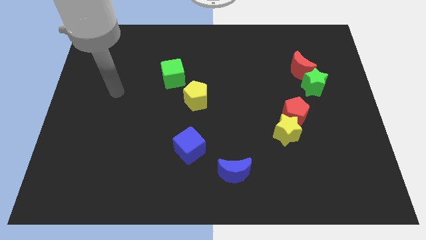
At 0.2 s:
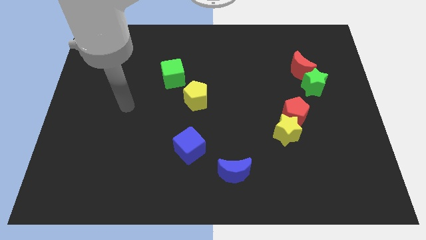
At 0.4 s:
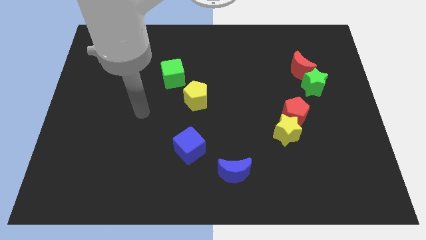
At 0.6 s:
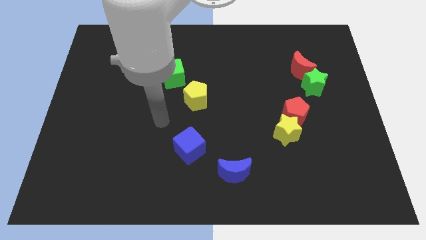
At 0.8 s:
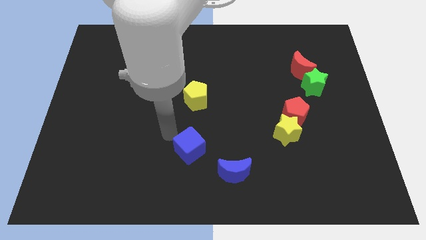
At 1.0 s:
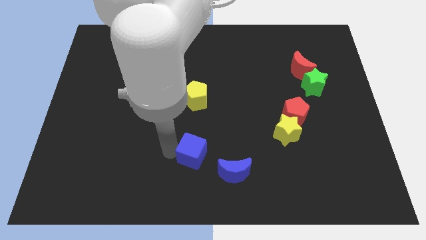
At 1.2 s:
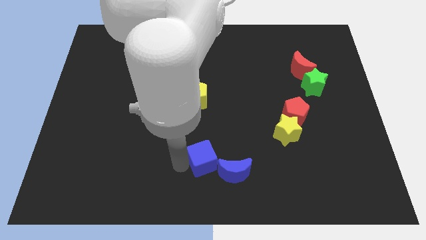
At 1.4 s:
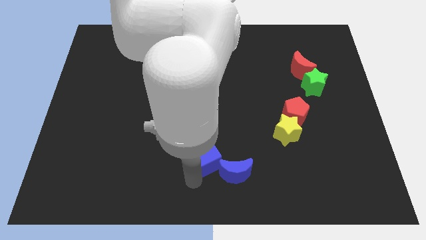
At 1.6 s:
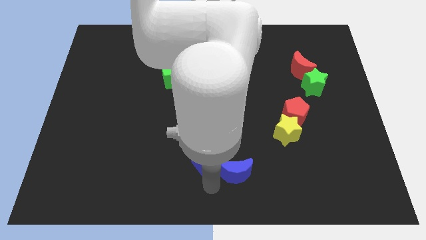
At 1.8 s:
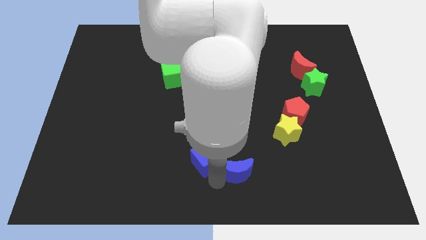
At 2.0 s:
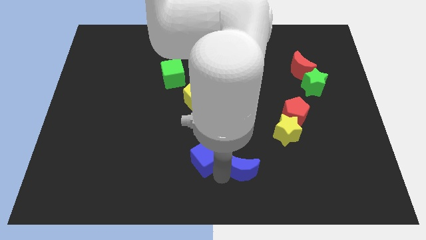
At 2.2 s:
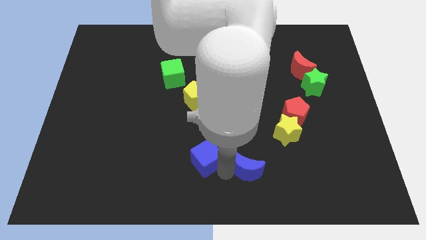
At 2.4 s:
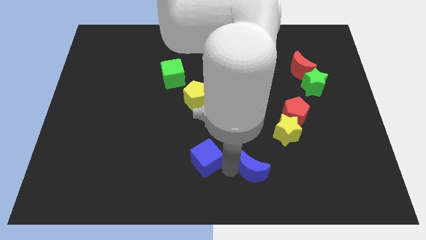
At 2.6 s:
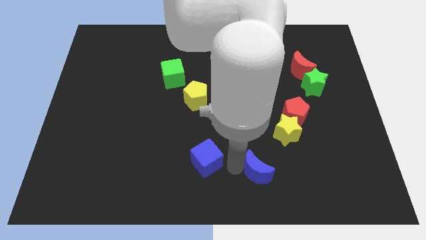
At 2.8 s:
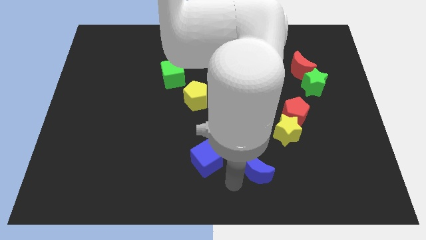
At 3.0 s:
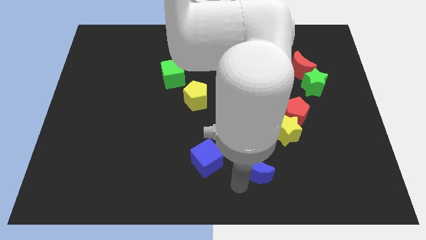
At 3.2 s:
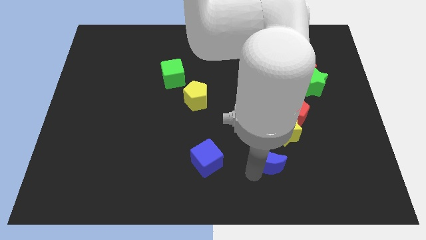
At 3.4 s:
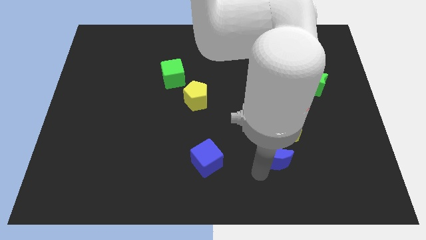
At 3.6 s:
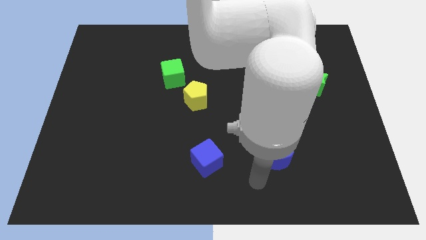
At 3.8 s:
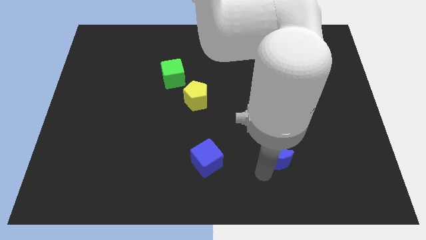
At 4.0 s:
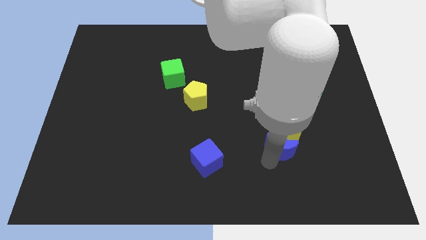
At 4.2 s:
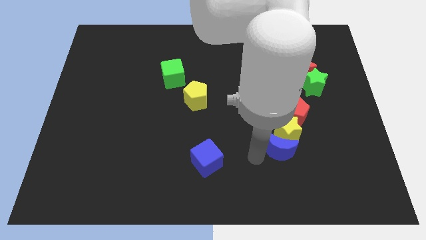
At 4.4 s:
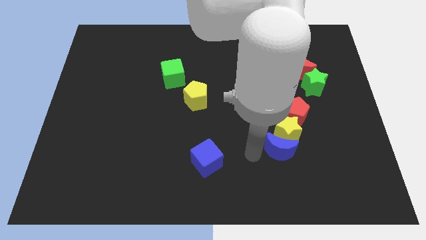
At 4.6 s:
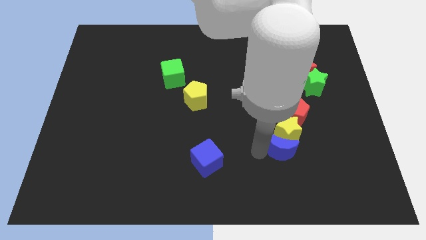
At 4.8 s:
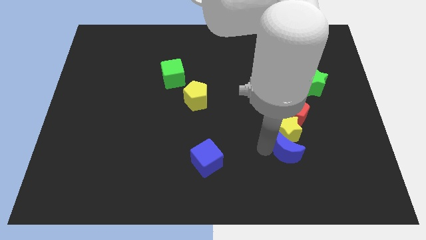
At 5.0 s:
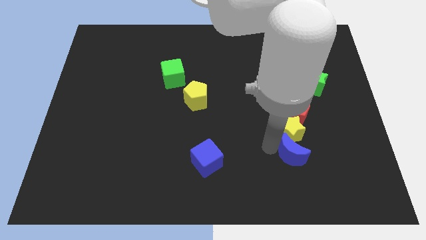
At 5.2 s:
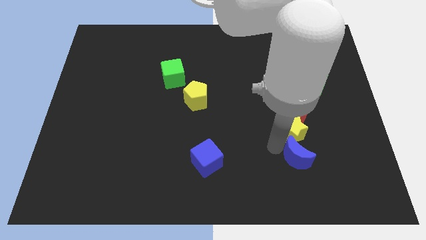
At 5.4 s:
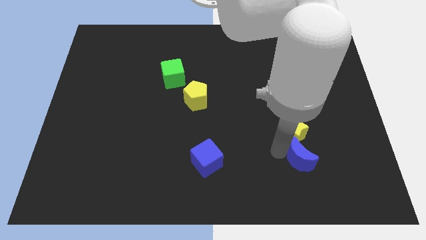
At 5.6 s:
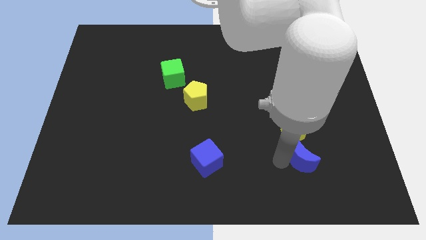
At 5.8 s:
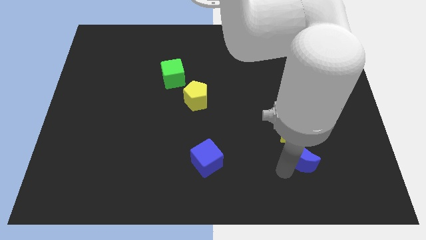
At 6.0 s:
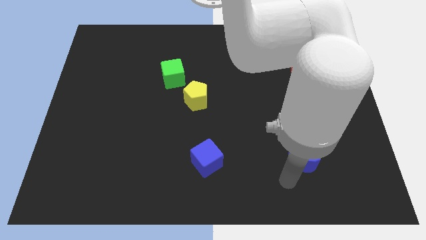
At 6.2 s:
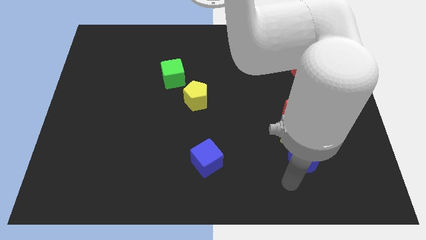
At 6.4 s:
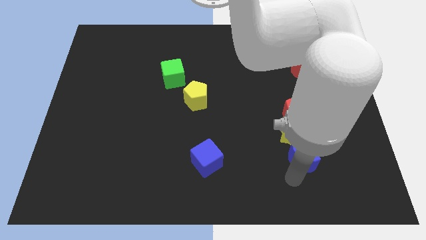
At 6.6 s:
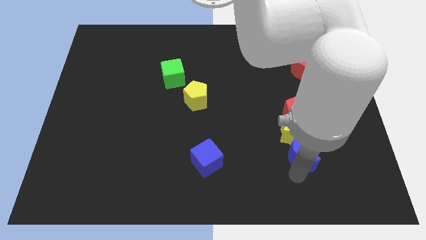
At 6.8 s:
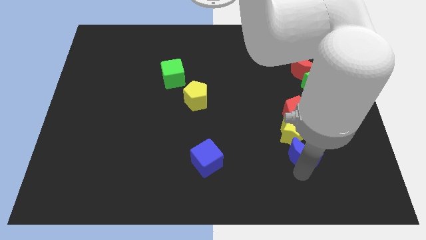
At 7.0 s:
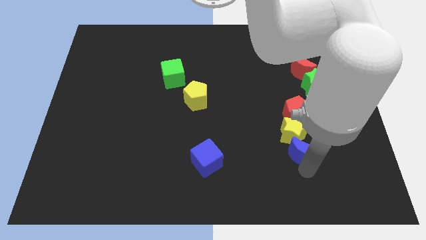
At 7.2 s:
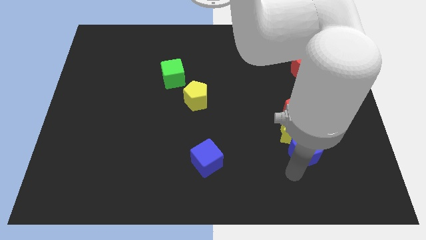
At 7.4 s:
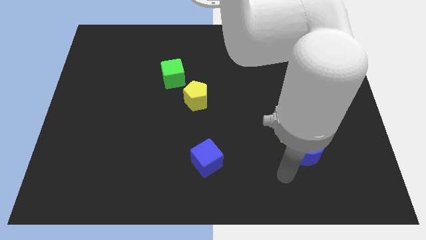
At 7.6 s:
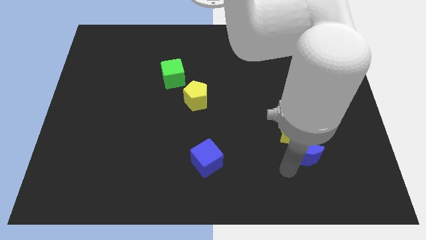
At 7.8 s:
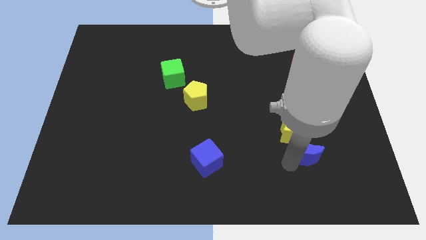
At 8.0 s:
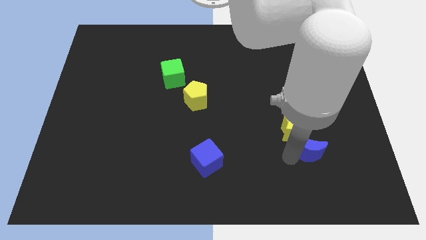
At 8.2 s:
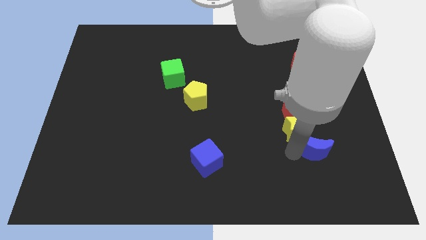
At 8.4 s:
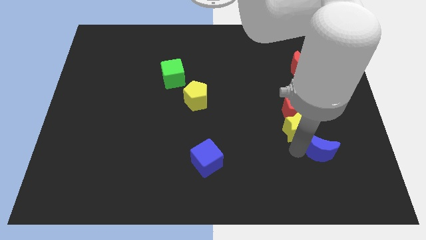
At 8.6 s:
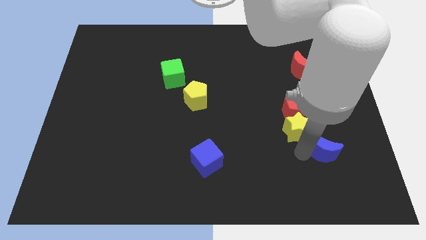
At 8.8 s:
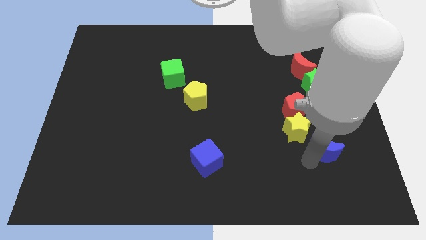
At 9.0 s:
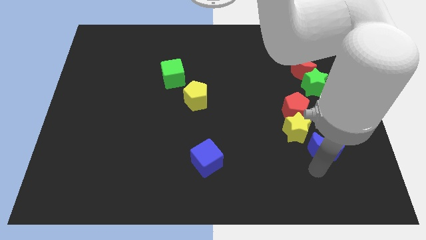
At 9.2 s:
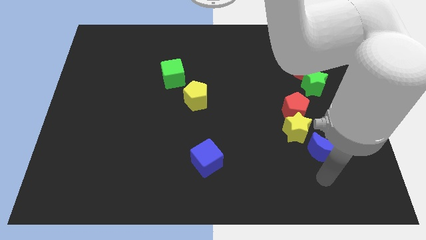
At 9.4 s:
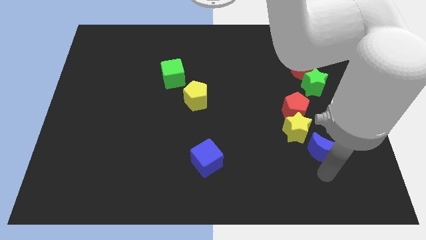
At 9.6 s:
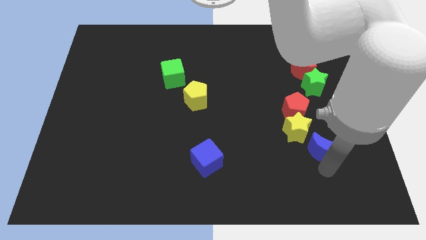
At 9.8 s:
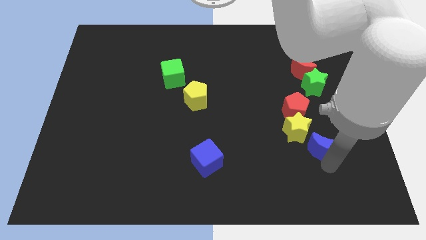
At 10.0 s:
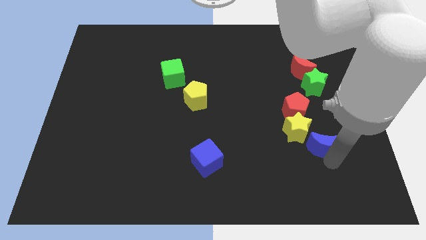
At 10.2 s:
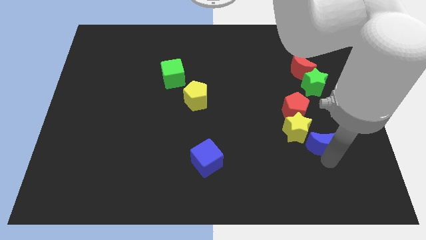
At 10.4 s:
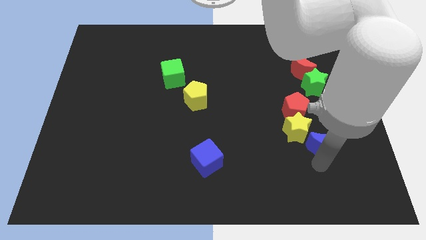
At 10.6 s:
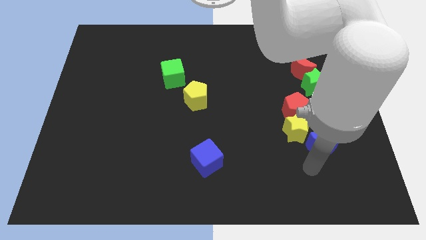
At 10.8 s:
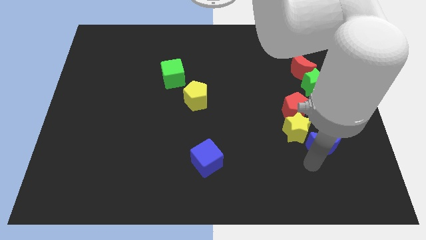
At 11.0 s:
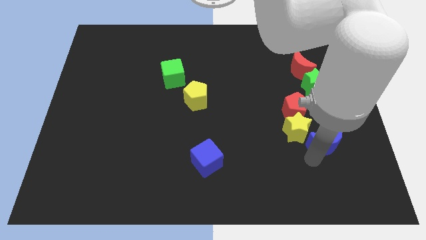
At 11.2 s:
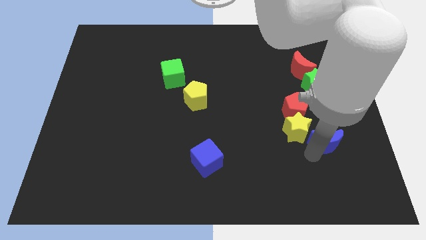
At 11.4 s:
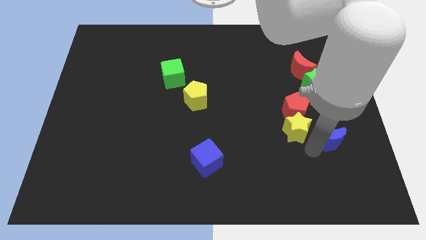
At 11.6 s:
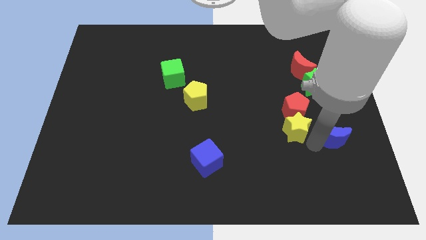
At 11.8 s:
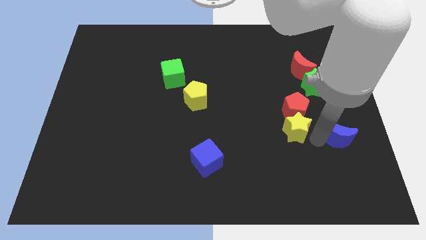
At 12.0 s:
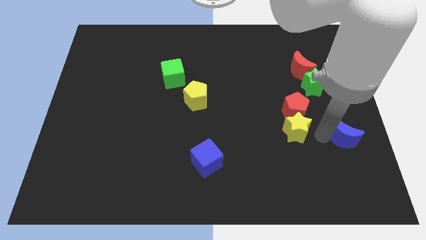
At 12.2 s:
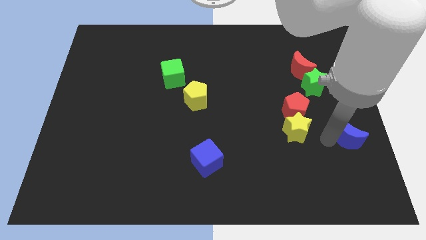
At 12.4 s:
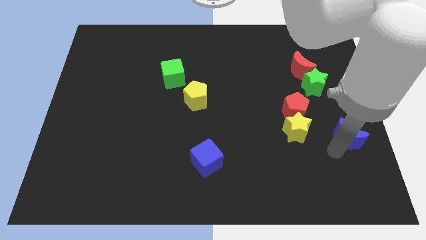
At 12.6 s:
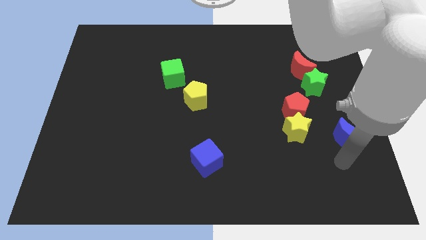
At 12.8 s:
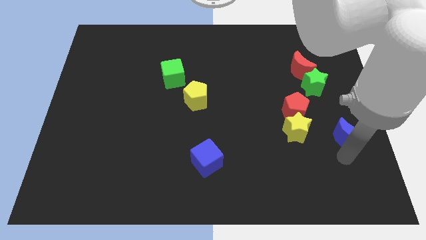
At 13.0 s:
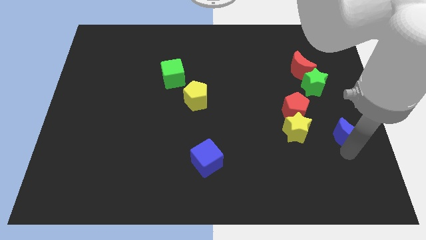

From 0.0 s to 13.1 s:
push the blue moon to the right side of the board

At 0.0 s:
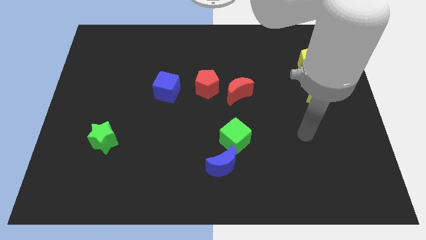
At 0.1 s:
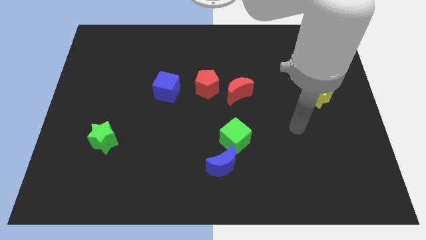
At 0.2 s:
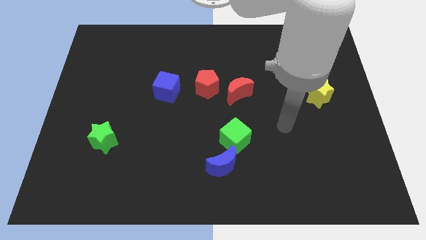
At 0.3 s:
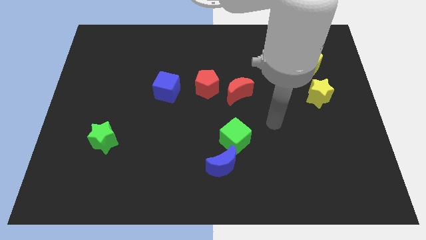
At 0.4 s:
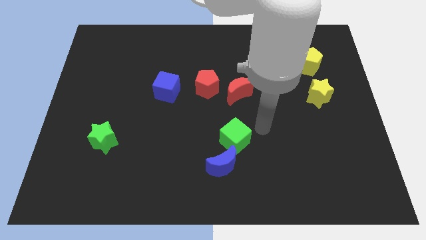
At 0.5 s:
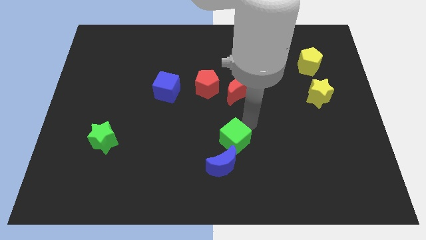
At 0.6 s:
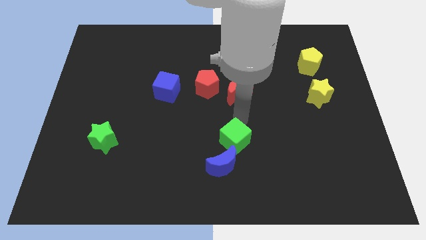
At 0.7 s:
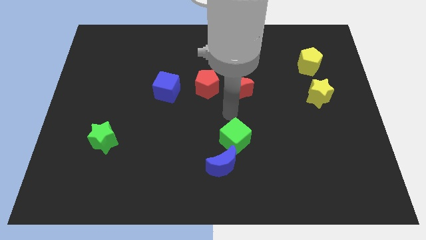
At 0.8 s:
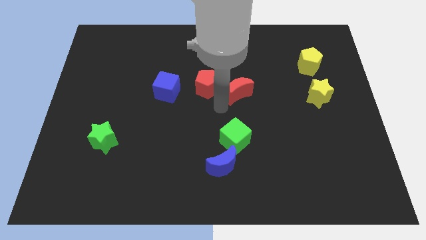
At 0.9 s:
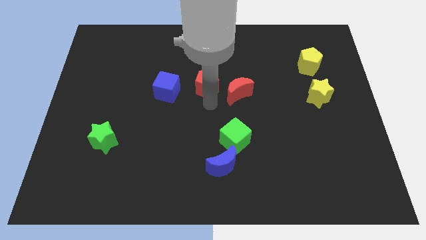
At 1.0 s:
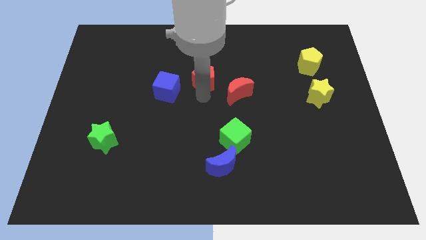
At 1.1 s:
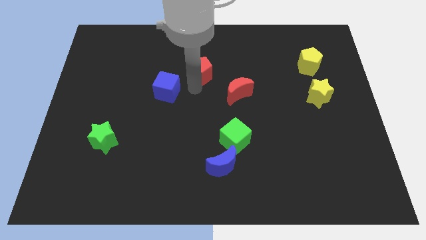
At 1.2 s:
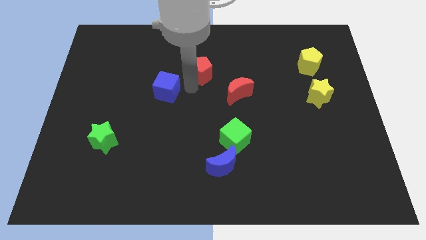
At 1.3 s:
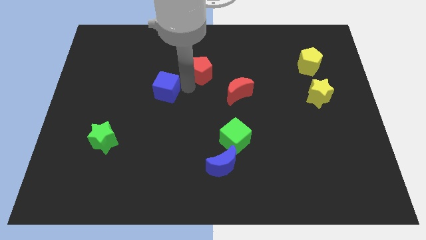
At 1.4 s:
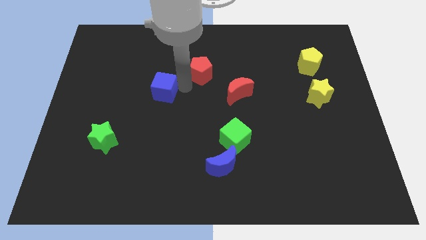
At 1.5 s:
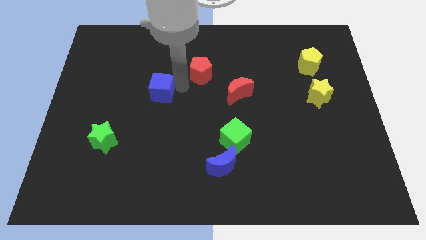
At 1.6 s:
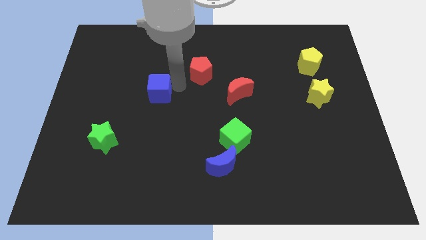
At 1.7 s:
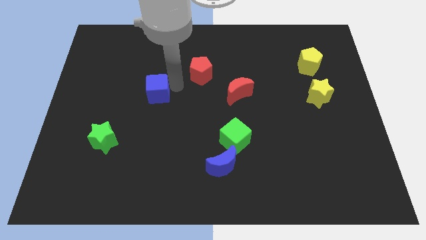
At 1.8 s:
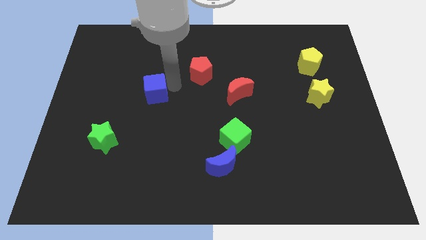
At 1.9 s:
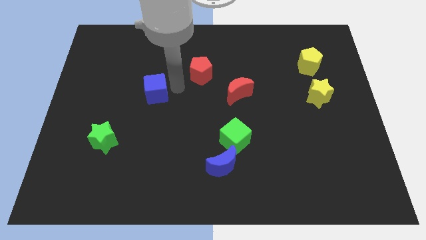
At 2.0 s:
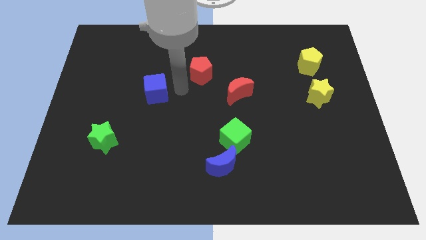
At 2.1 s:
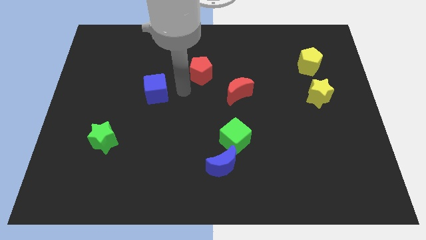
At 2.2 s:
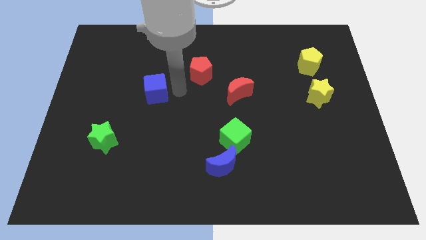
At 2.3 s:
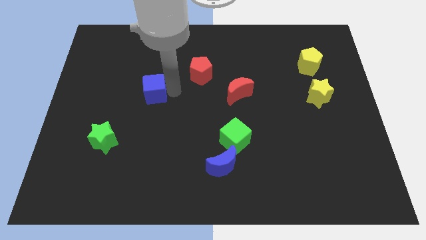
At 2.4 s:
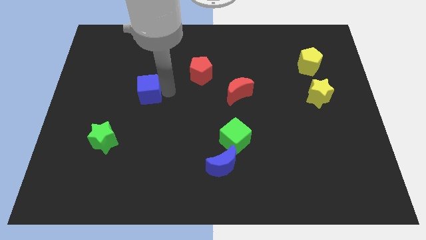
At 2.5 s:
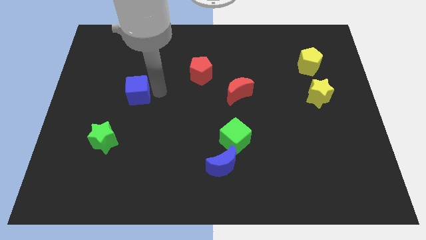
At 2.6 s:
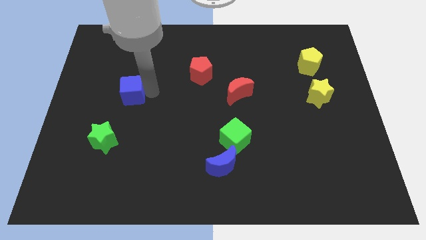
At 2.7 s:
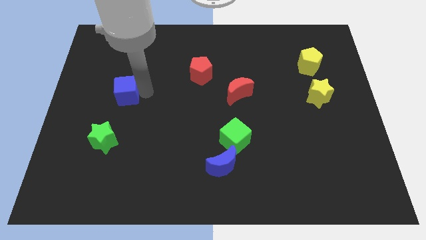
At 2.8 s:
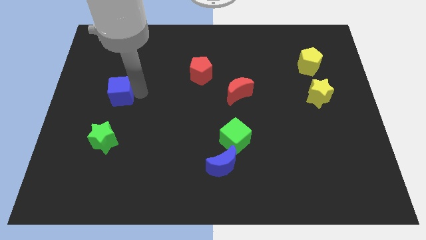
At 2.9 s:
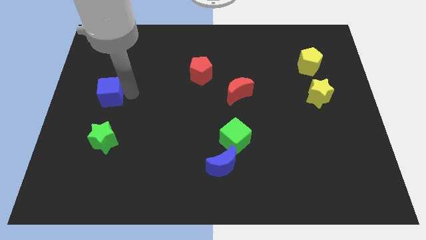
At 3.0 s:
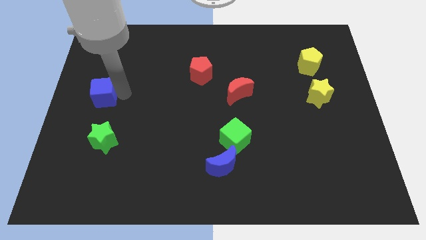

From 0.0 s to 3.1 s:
push the blue cube to the left side of the board
